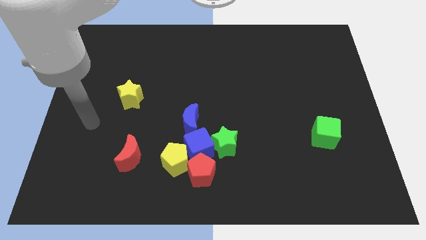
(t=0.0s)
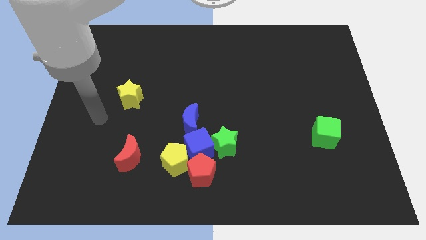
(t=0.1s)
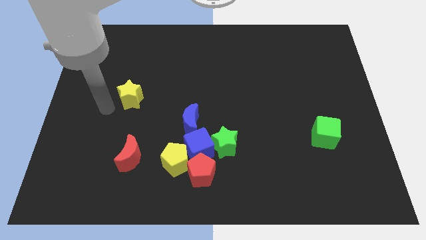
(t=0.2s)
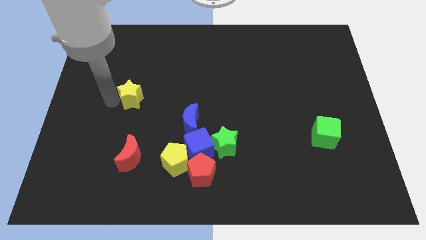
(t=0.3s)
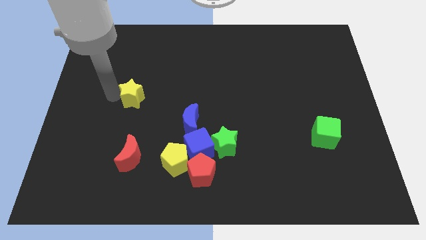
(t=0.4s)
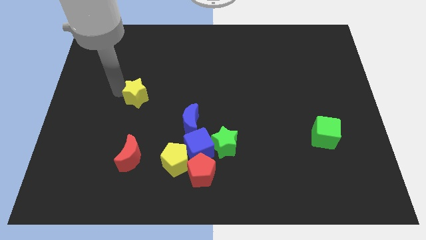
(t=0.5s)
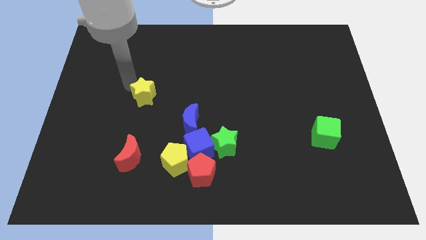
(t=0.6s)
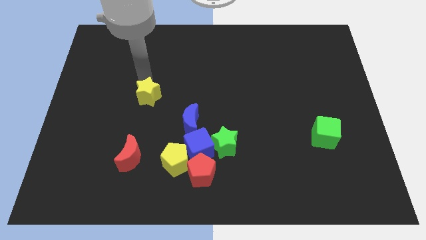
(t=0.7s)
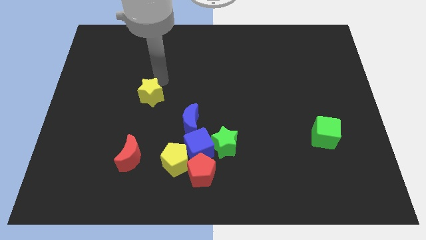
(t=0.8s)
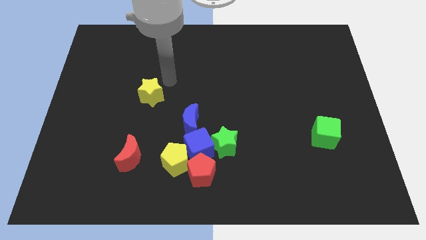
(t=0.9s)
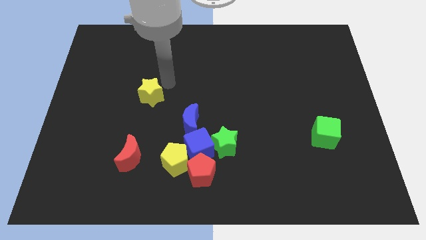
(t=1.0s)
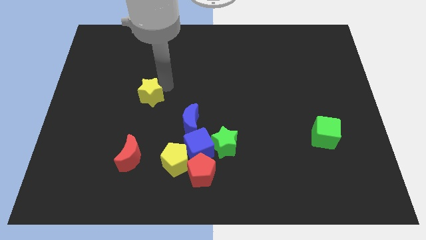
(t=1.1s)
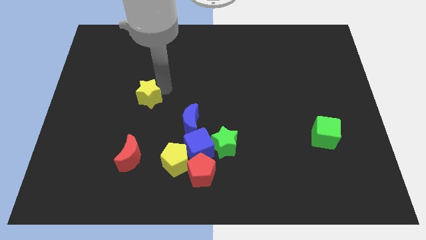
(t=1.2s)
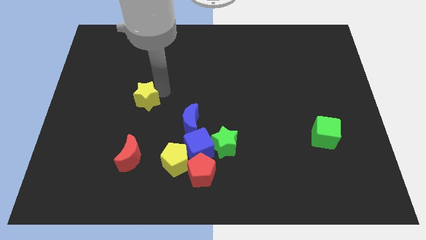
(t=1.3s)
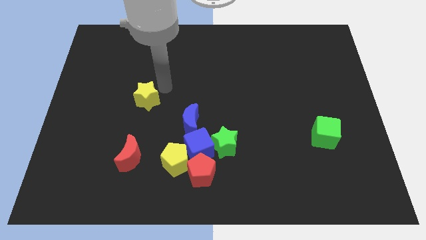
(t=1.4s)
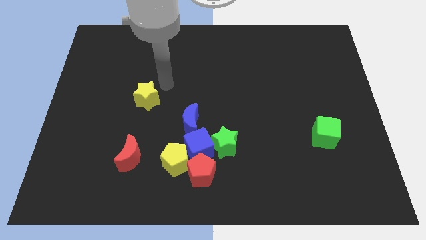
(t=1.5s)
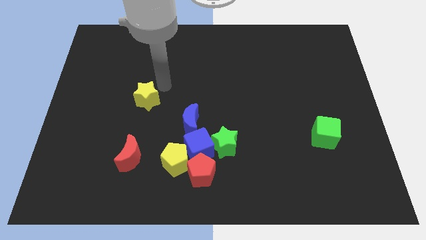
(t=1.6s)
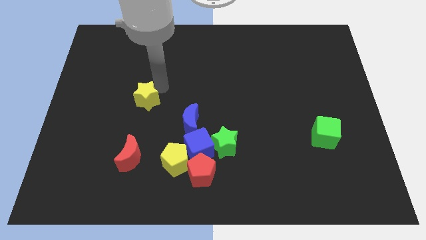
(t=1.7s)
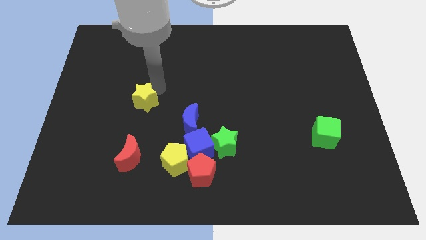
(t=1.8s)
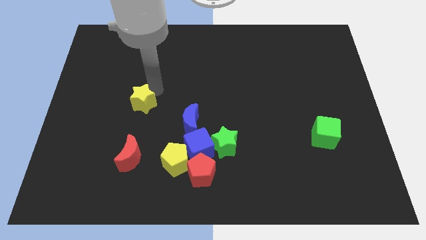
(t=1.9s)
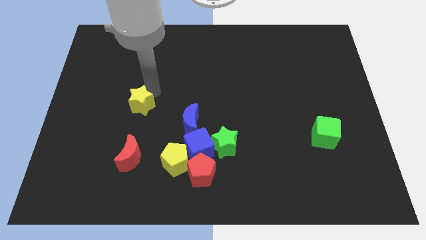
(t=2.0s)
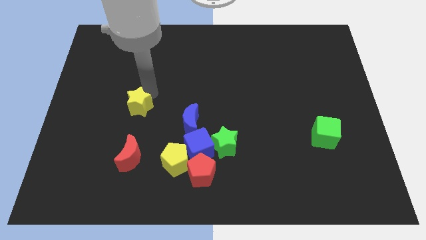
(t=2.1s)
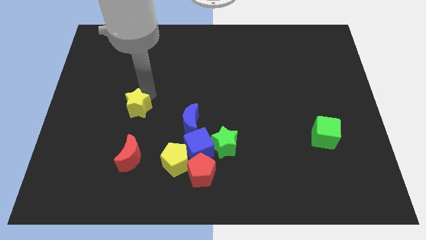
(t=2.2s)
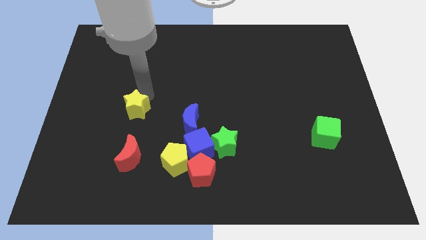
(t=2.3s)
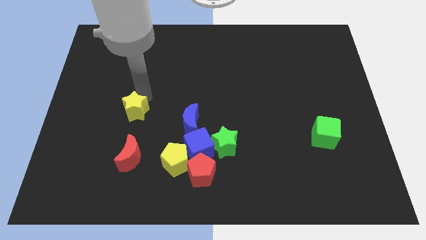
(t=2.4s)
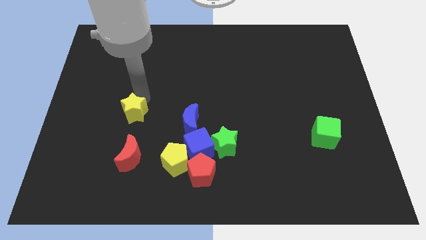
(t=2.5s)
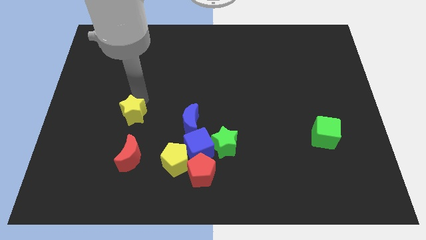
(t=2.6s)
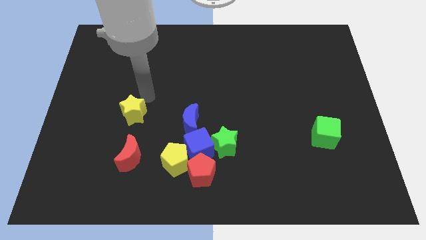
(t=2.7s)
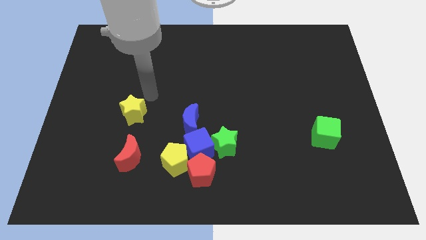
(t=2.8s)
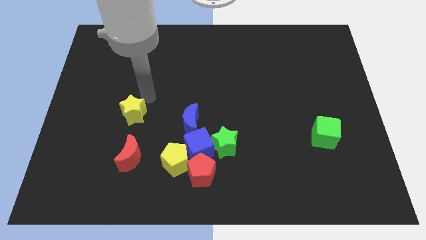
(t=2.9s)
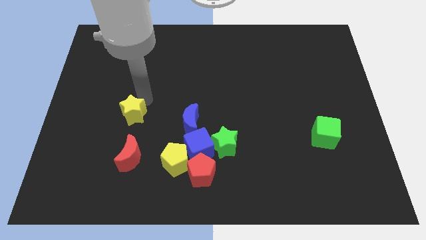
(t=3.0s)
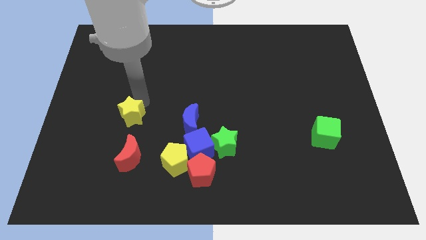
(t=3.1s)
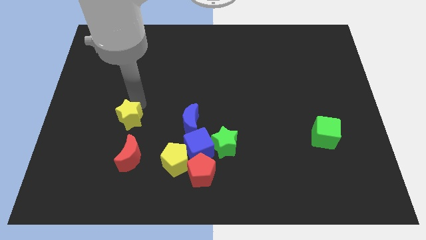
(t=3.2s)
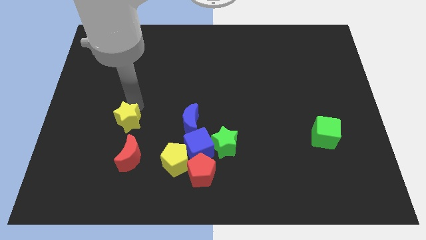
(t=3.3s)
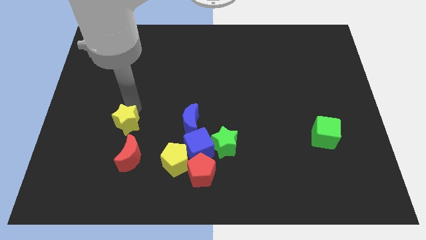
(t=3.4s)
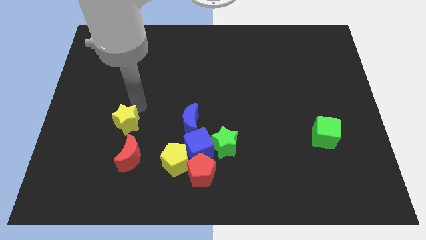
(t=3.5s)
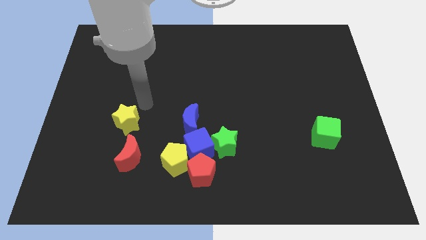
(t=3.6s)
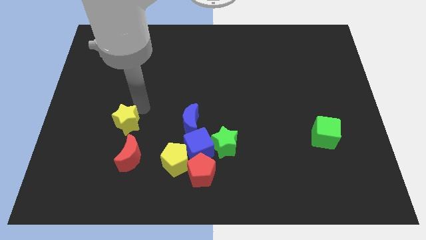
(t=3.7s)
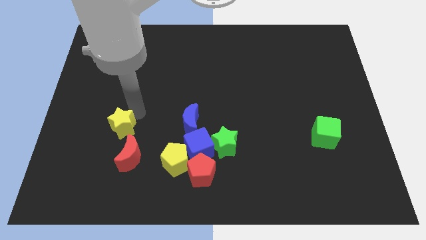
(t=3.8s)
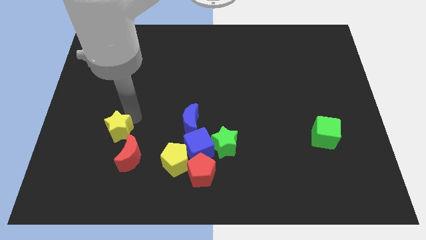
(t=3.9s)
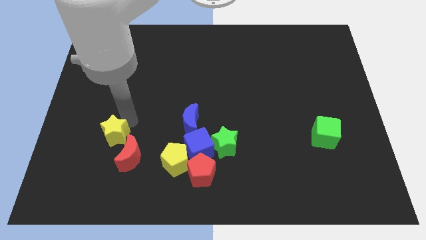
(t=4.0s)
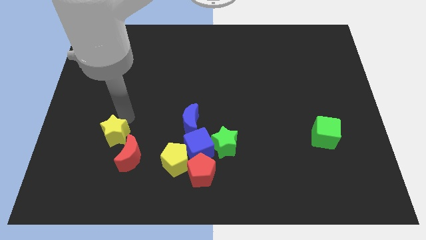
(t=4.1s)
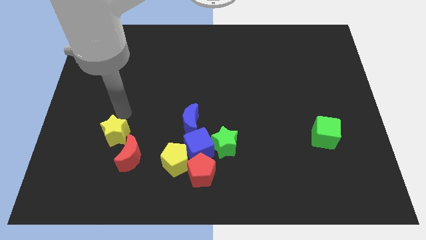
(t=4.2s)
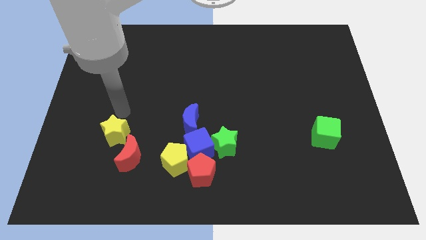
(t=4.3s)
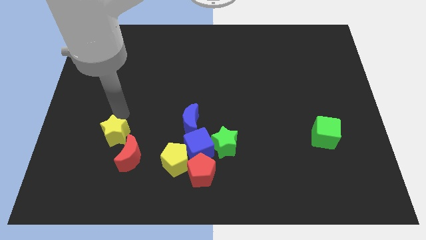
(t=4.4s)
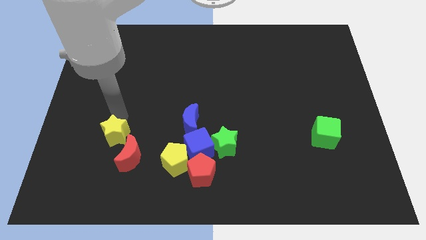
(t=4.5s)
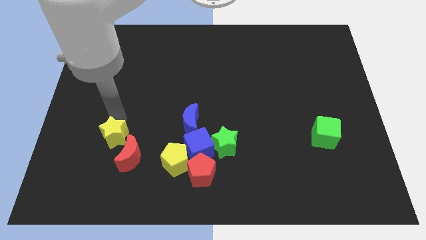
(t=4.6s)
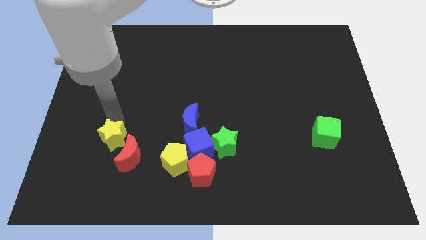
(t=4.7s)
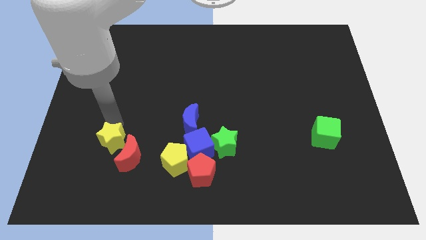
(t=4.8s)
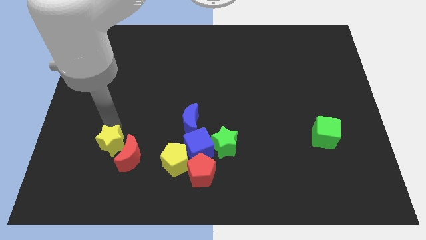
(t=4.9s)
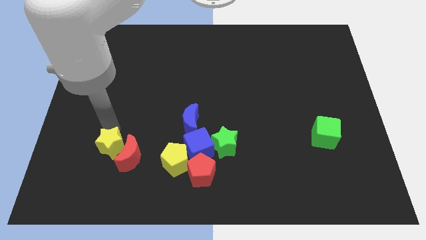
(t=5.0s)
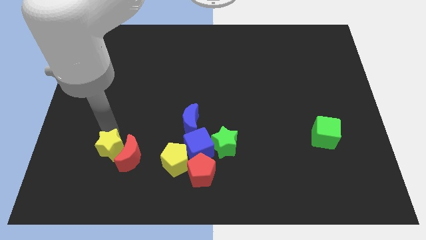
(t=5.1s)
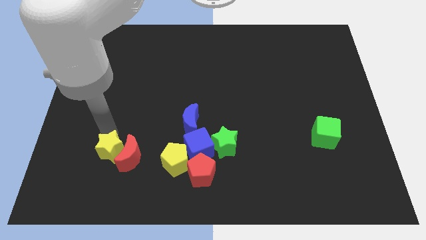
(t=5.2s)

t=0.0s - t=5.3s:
move the yellow star to the bottom left side of the red moon

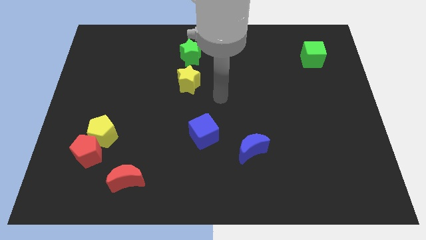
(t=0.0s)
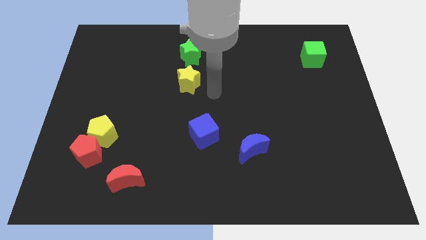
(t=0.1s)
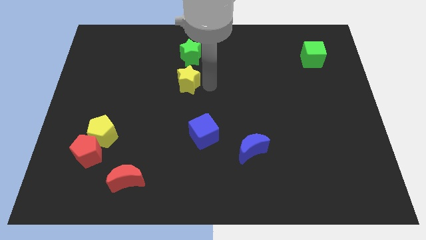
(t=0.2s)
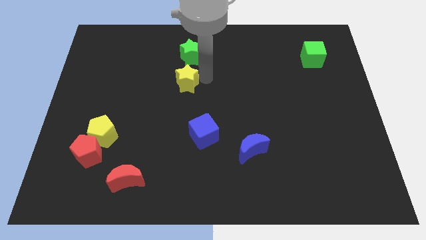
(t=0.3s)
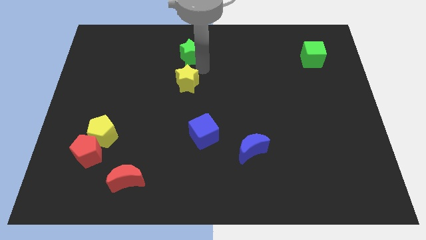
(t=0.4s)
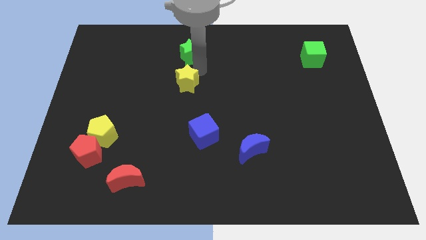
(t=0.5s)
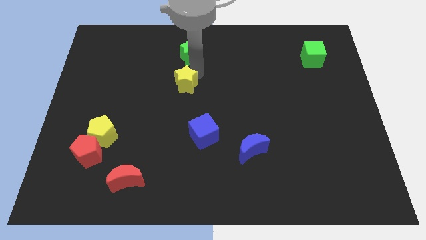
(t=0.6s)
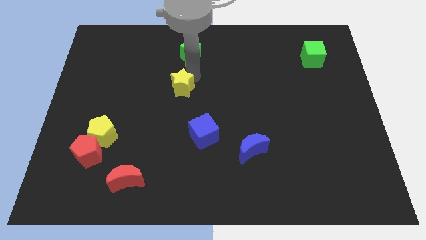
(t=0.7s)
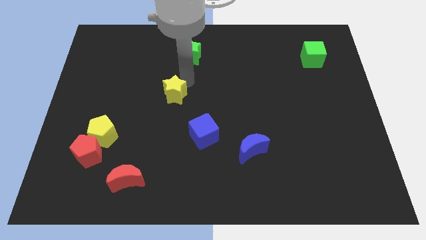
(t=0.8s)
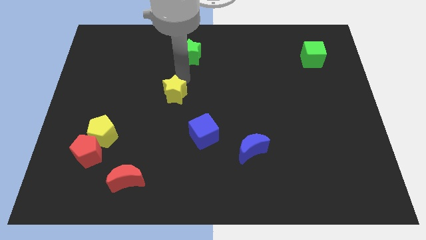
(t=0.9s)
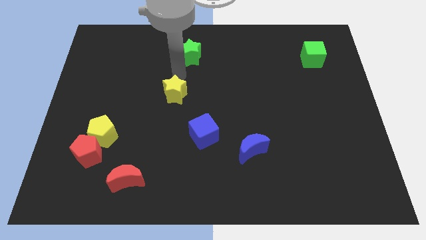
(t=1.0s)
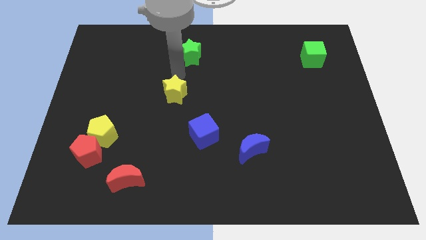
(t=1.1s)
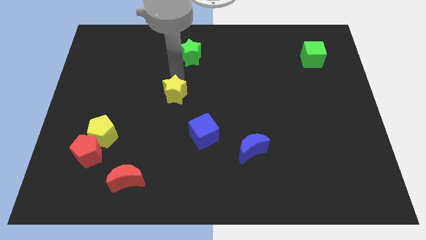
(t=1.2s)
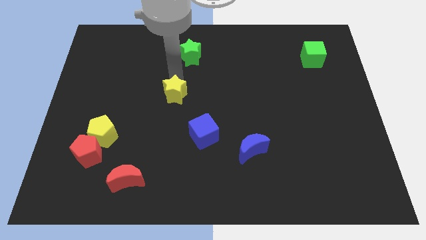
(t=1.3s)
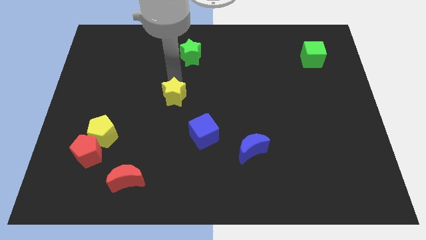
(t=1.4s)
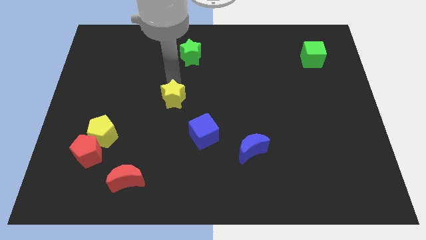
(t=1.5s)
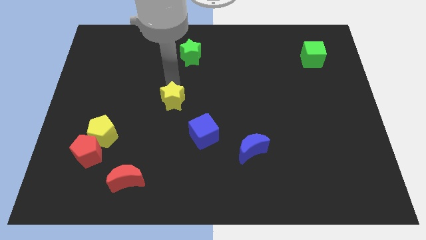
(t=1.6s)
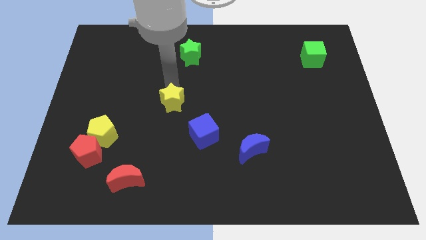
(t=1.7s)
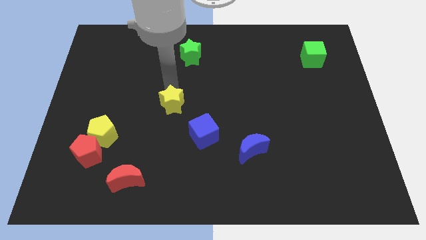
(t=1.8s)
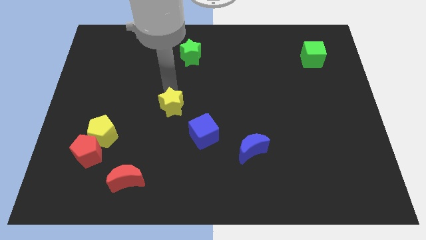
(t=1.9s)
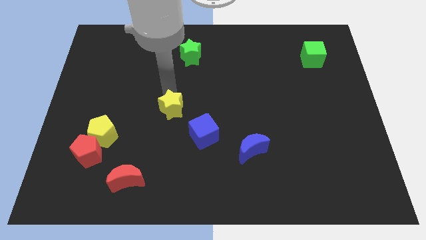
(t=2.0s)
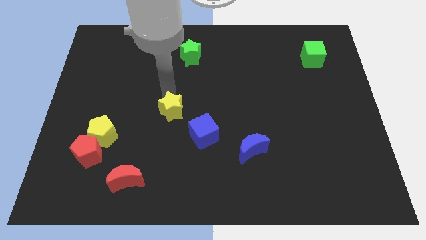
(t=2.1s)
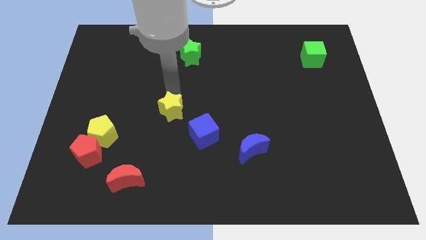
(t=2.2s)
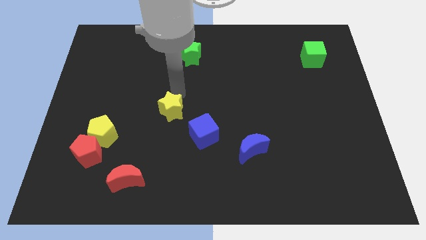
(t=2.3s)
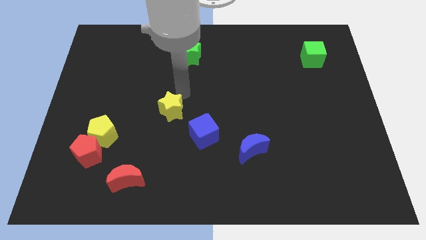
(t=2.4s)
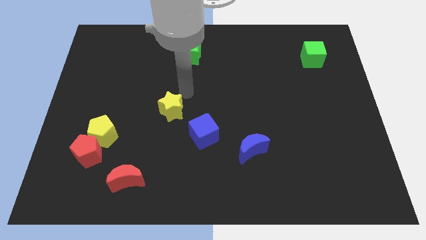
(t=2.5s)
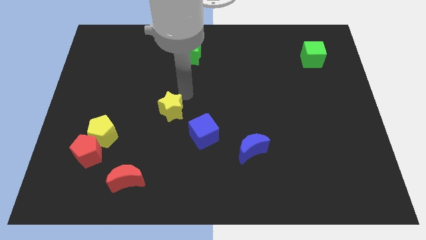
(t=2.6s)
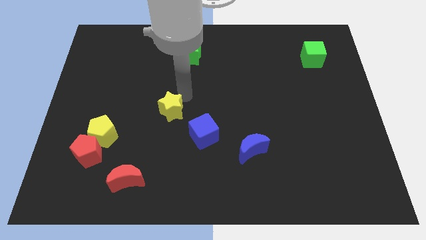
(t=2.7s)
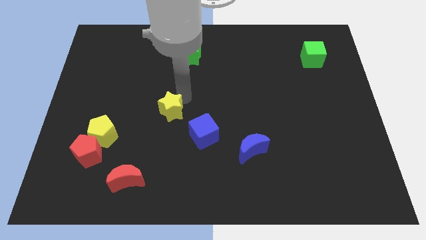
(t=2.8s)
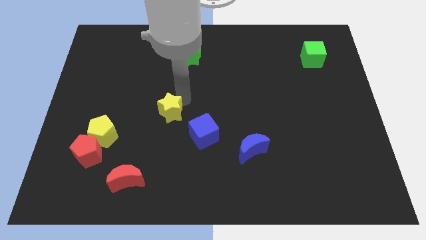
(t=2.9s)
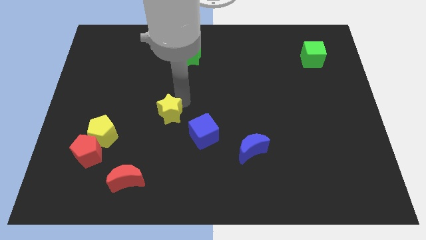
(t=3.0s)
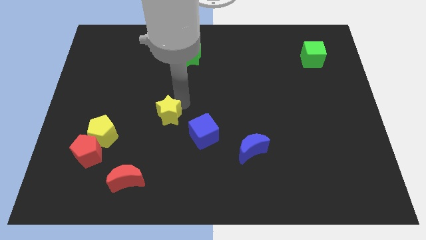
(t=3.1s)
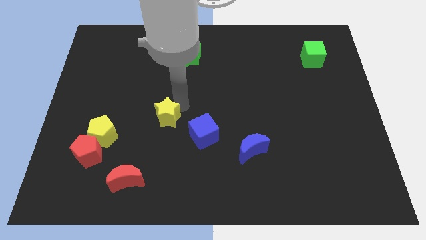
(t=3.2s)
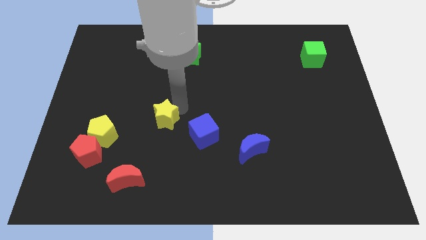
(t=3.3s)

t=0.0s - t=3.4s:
put the yellow star just right of the yellow pentagon

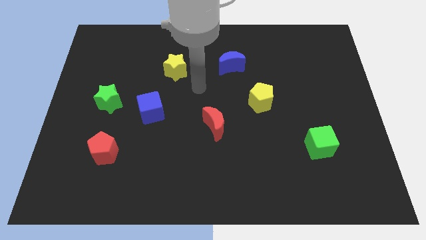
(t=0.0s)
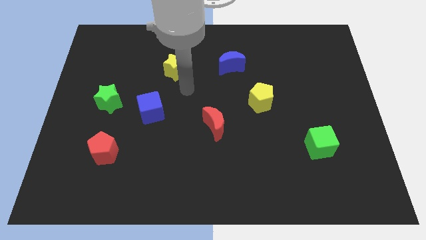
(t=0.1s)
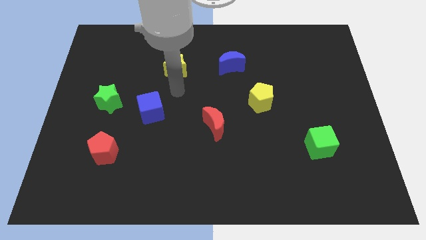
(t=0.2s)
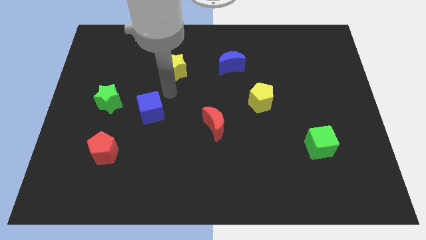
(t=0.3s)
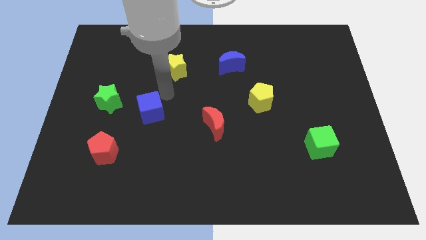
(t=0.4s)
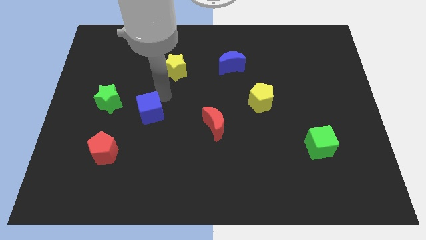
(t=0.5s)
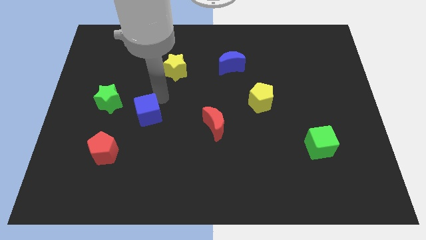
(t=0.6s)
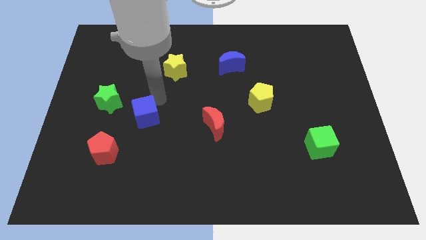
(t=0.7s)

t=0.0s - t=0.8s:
slide the blue cube to the top right of the red pentagon
